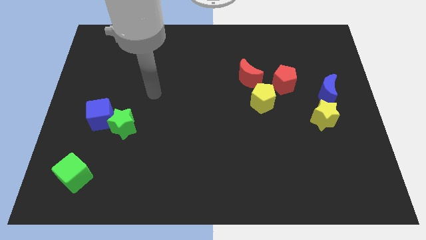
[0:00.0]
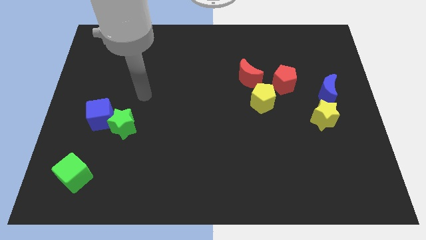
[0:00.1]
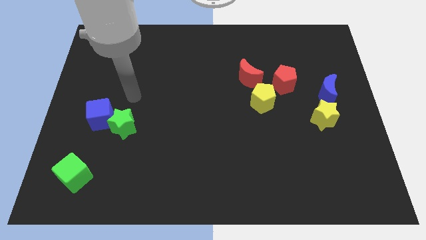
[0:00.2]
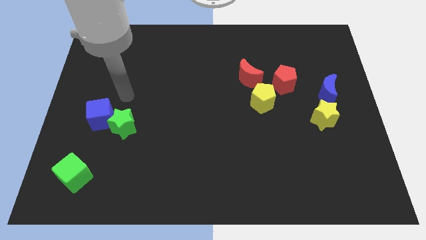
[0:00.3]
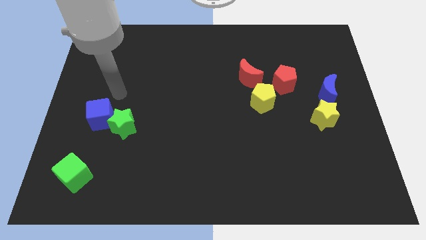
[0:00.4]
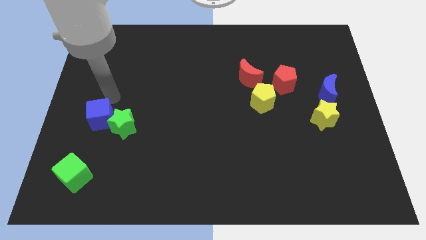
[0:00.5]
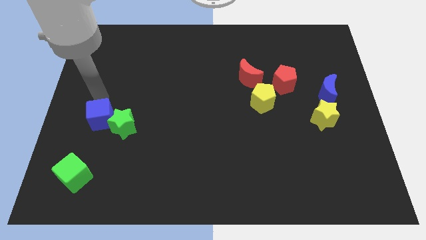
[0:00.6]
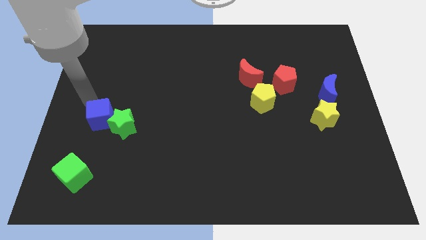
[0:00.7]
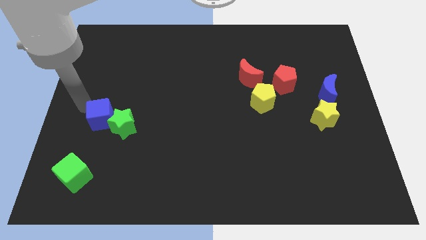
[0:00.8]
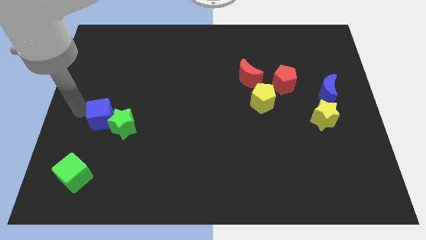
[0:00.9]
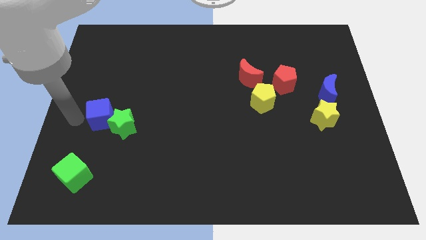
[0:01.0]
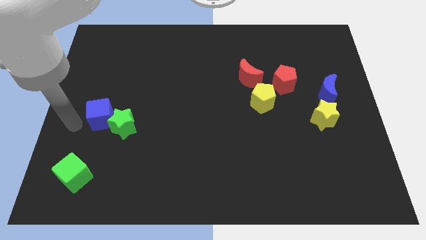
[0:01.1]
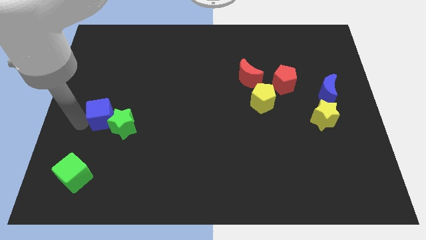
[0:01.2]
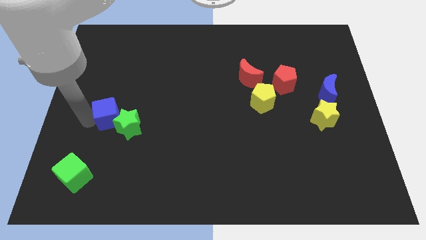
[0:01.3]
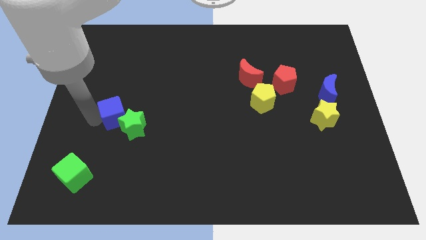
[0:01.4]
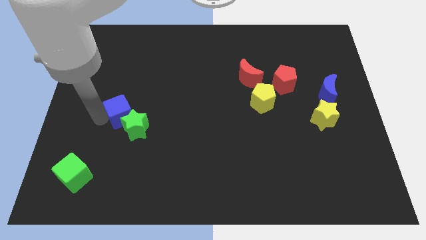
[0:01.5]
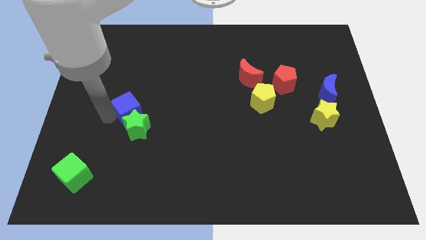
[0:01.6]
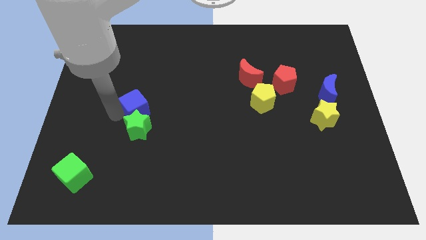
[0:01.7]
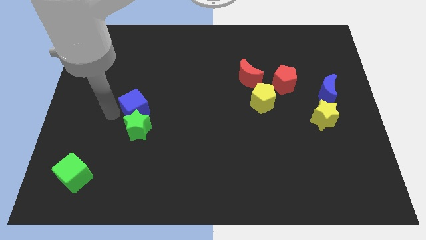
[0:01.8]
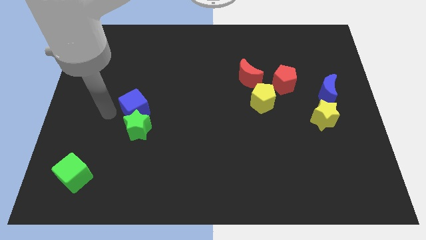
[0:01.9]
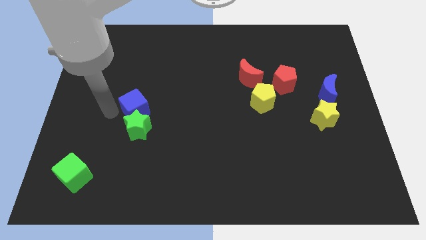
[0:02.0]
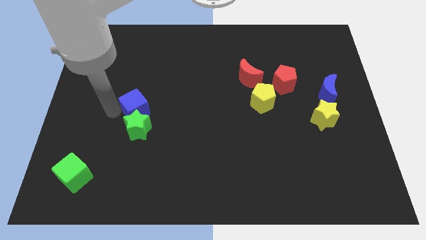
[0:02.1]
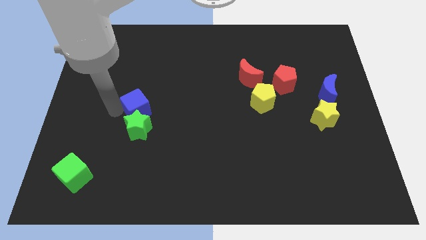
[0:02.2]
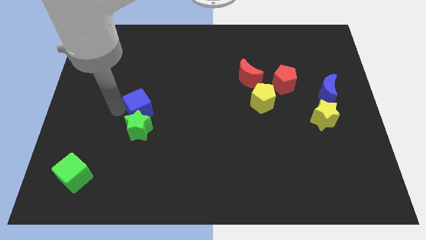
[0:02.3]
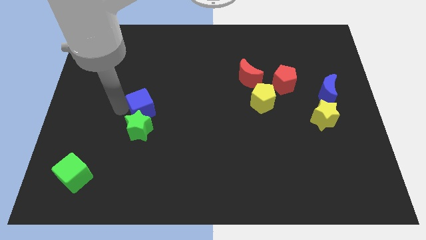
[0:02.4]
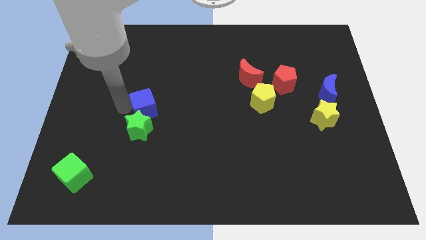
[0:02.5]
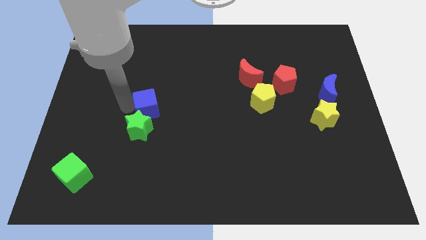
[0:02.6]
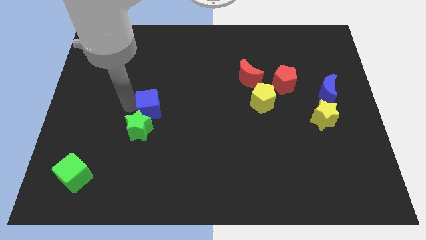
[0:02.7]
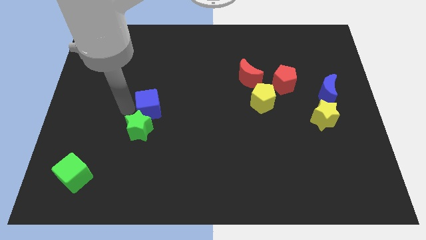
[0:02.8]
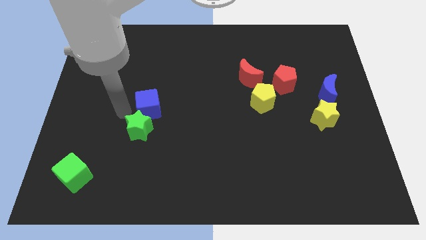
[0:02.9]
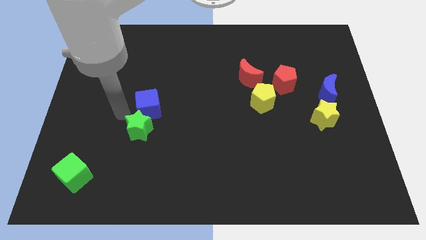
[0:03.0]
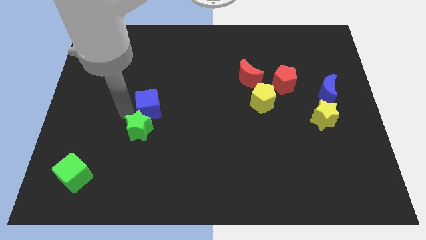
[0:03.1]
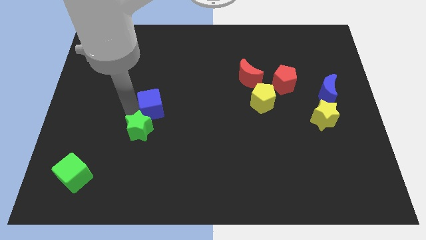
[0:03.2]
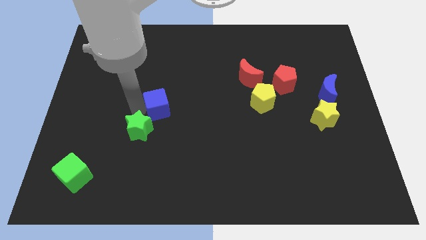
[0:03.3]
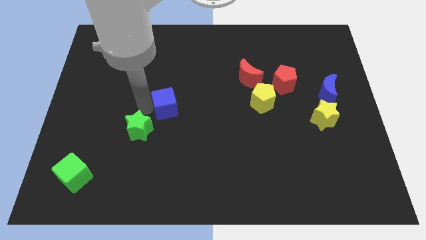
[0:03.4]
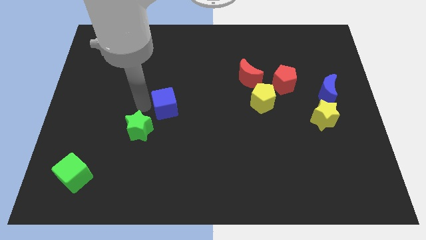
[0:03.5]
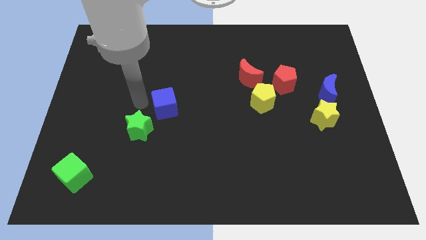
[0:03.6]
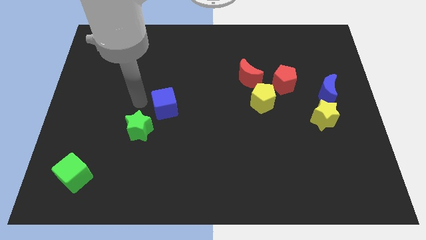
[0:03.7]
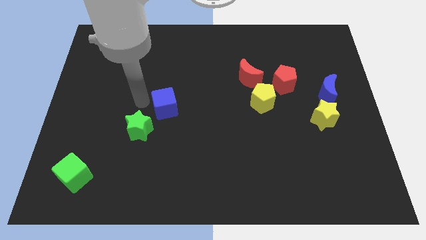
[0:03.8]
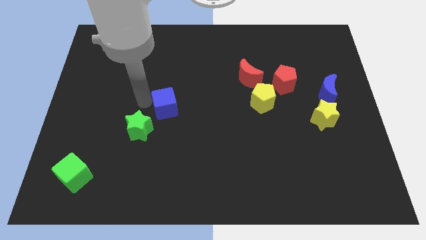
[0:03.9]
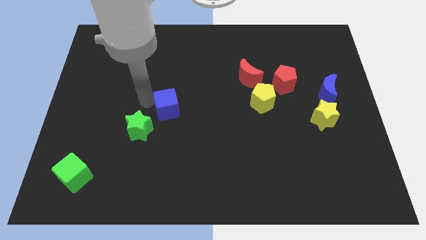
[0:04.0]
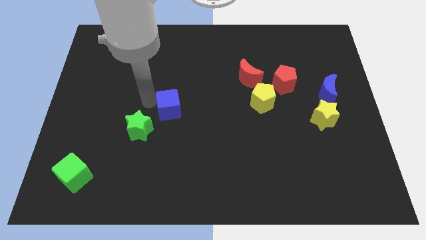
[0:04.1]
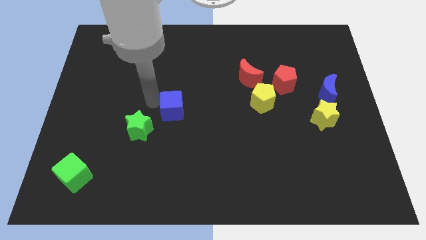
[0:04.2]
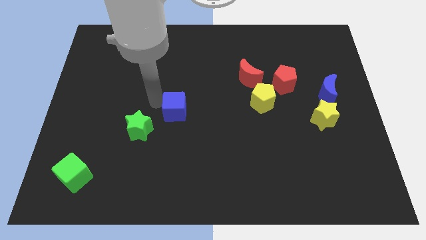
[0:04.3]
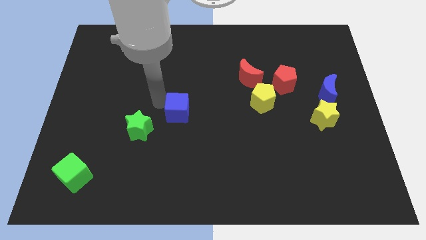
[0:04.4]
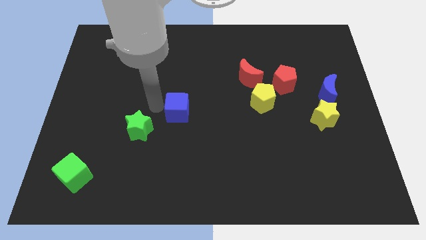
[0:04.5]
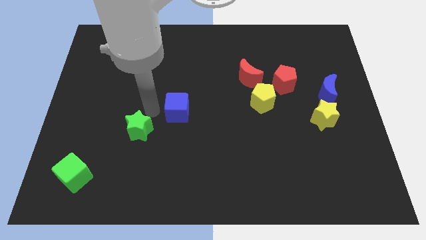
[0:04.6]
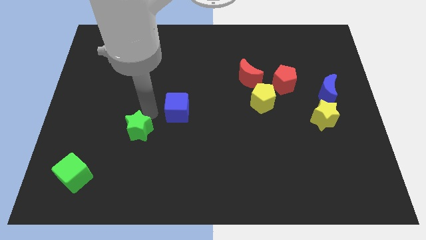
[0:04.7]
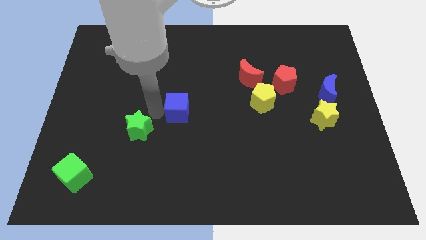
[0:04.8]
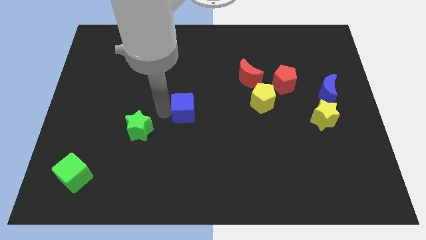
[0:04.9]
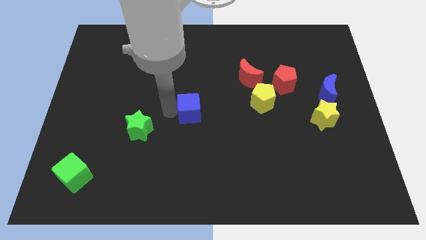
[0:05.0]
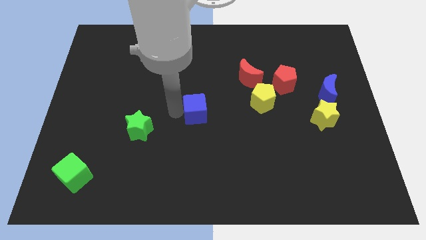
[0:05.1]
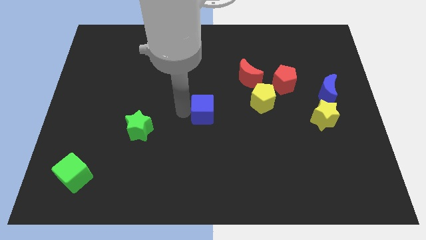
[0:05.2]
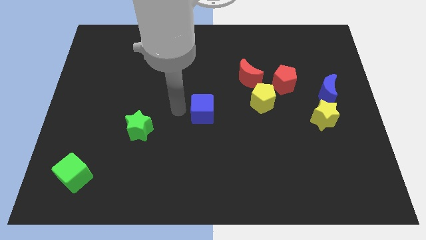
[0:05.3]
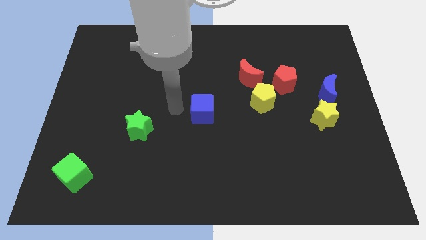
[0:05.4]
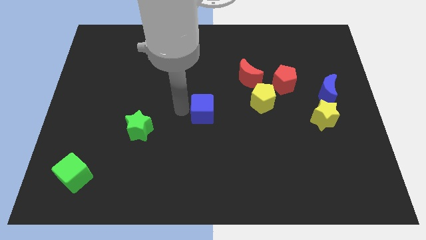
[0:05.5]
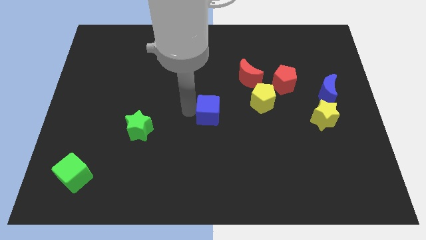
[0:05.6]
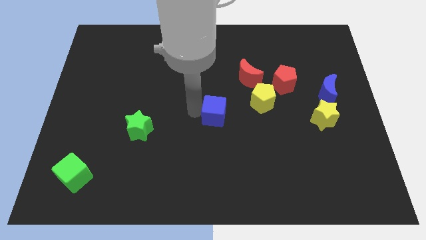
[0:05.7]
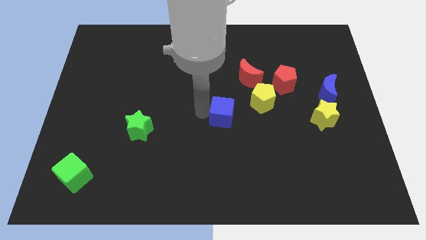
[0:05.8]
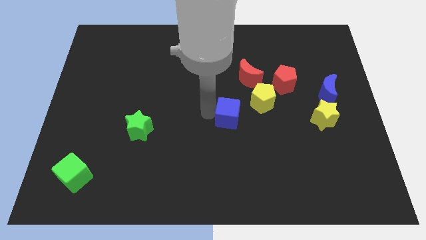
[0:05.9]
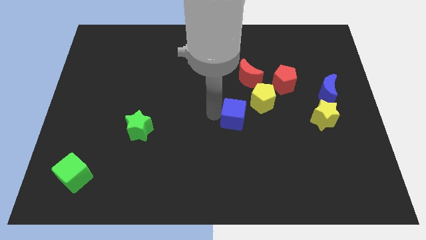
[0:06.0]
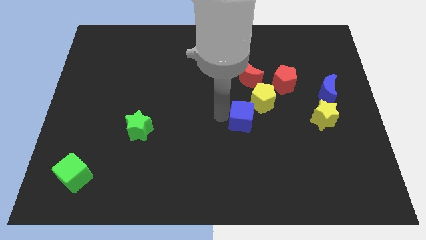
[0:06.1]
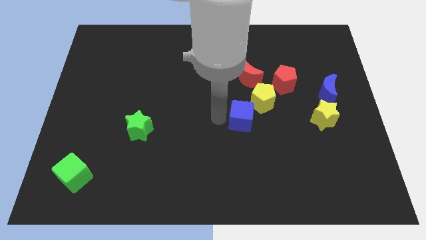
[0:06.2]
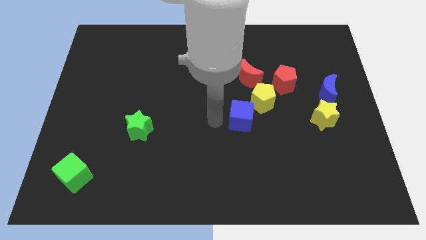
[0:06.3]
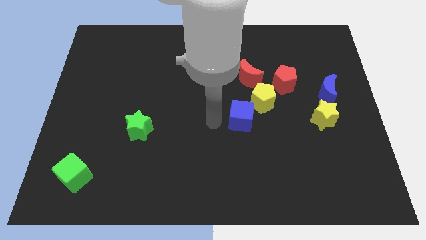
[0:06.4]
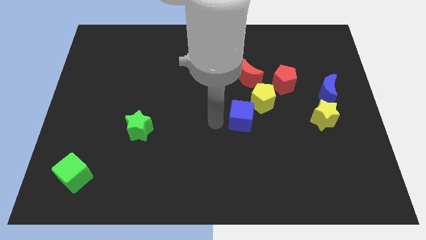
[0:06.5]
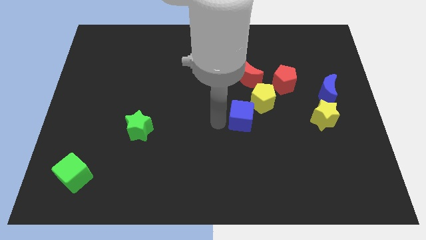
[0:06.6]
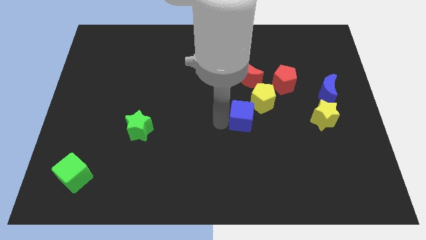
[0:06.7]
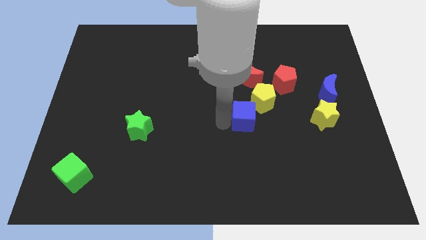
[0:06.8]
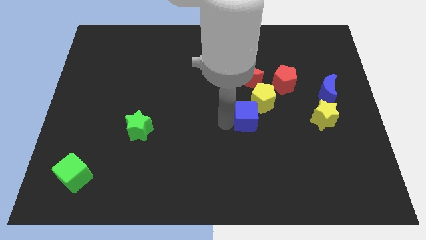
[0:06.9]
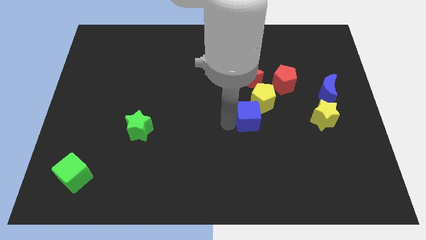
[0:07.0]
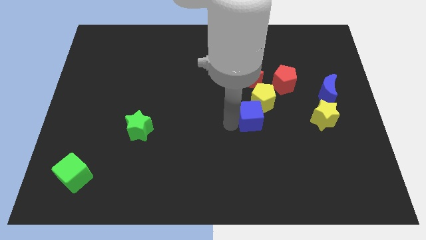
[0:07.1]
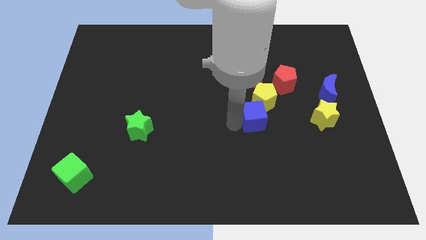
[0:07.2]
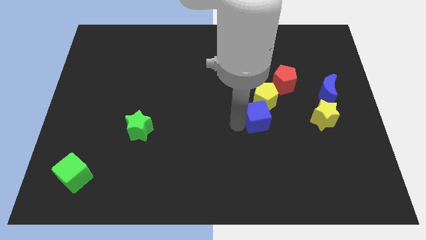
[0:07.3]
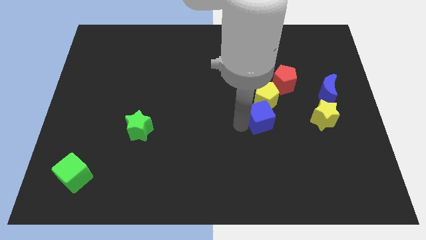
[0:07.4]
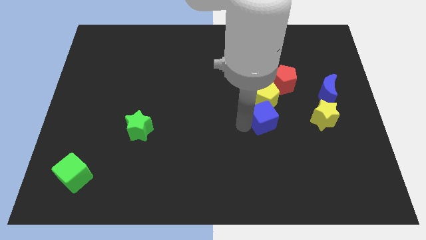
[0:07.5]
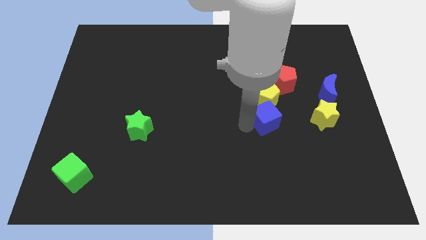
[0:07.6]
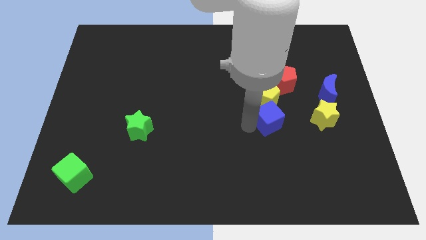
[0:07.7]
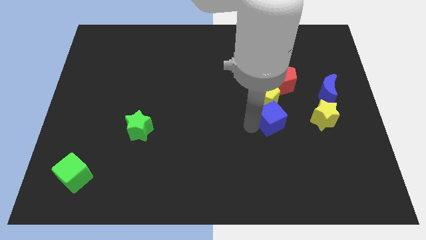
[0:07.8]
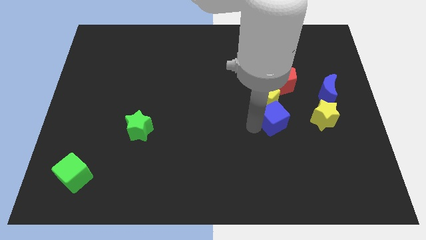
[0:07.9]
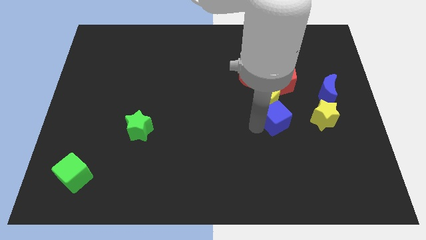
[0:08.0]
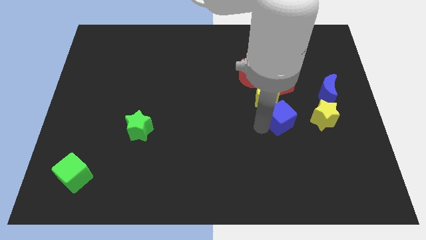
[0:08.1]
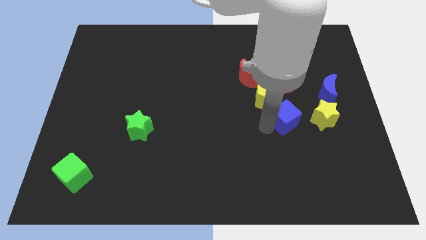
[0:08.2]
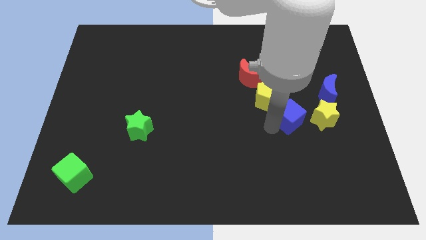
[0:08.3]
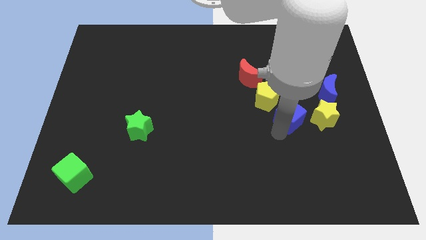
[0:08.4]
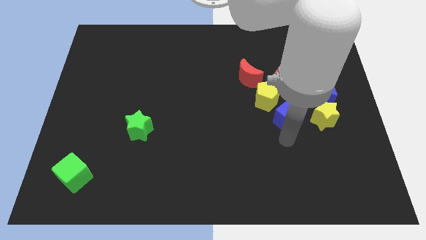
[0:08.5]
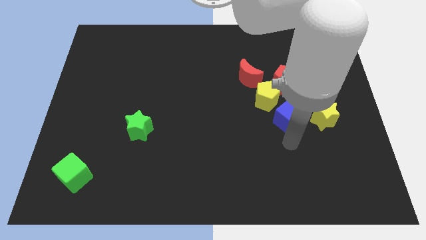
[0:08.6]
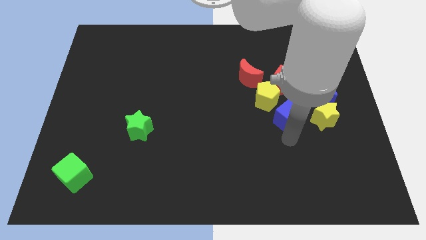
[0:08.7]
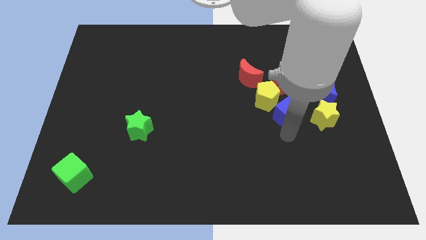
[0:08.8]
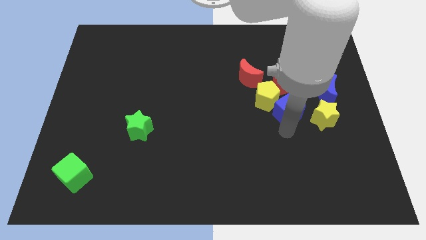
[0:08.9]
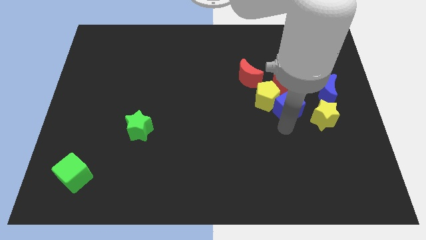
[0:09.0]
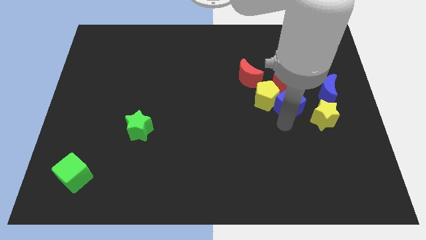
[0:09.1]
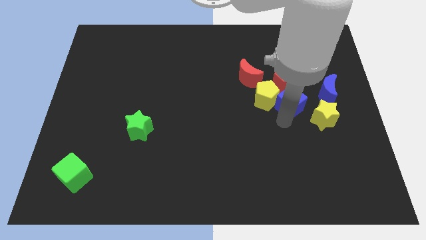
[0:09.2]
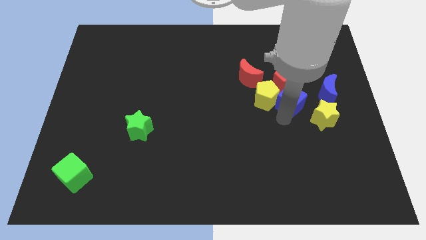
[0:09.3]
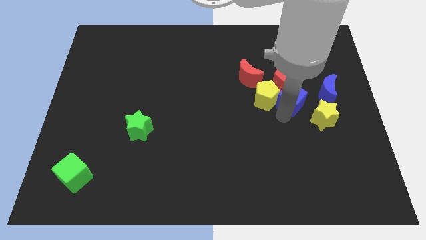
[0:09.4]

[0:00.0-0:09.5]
slide the blue cube to the red pentagon
